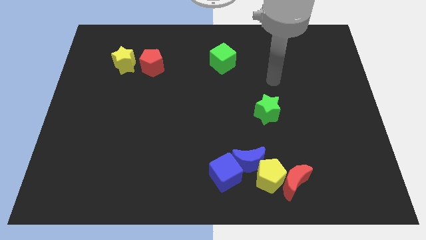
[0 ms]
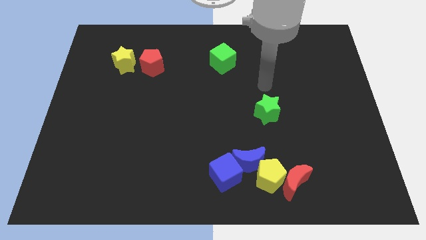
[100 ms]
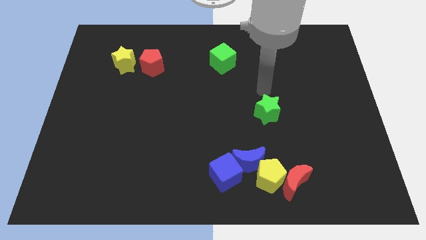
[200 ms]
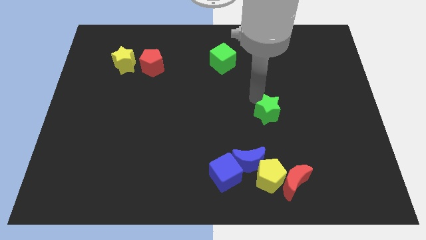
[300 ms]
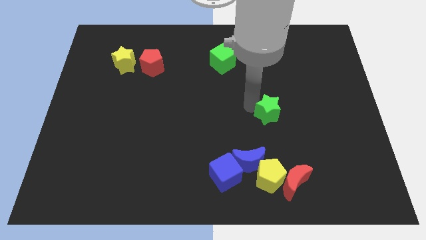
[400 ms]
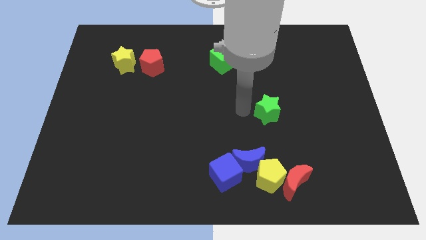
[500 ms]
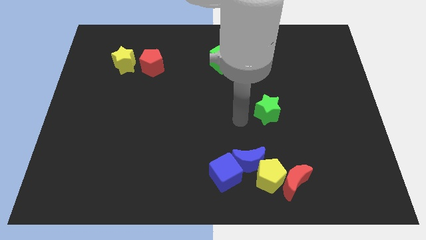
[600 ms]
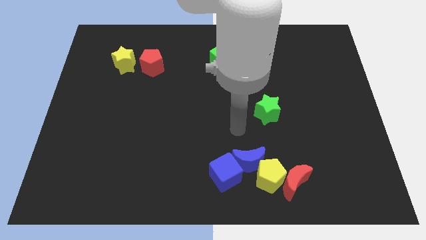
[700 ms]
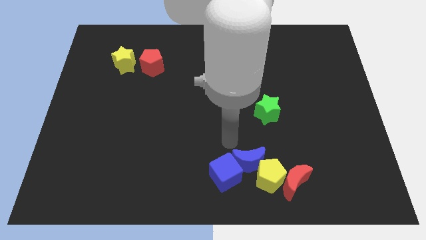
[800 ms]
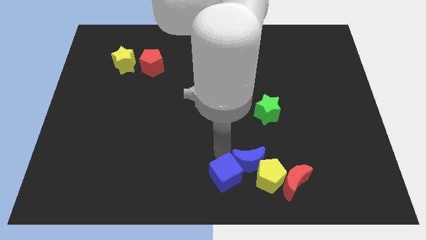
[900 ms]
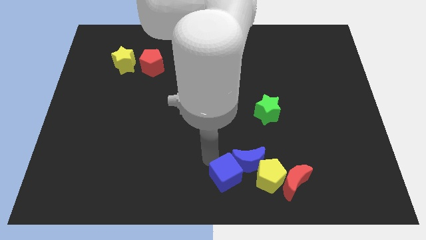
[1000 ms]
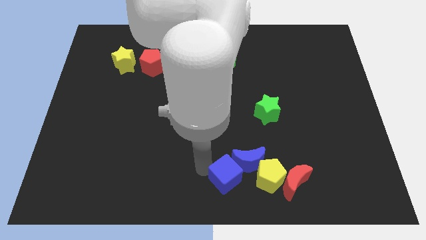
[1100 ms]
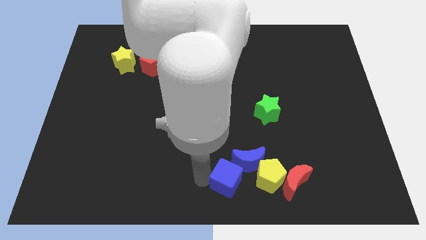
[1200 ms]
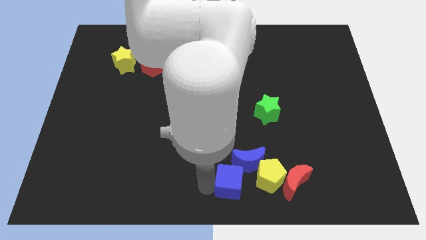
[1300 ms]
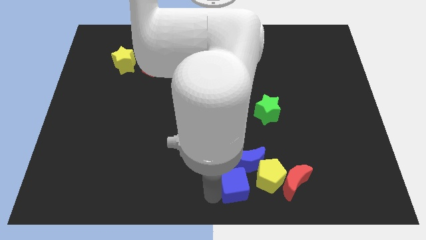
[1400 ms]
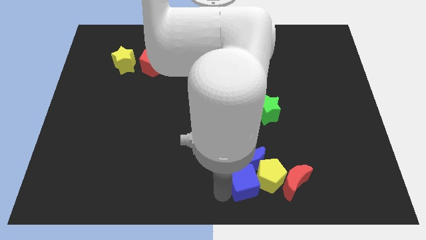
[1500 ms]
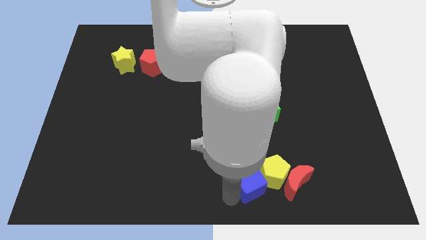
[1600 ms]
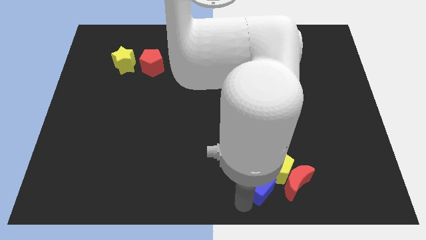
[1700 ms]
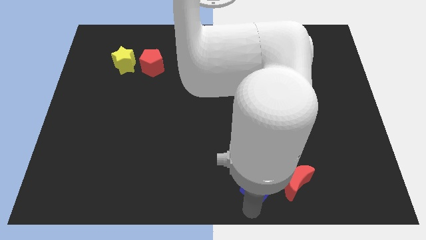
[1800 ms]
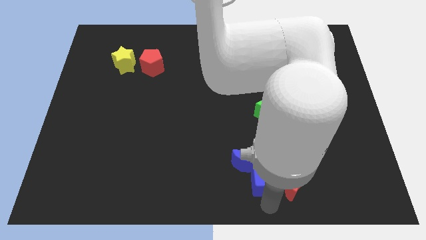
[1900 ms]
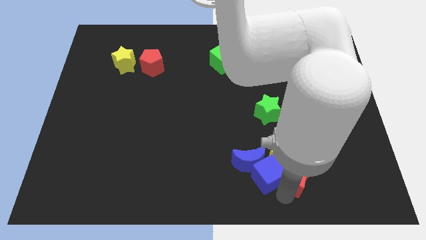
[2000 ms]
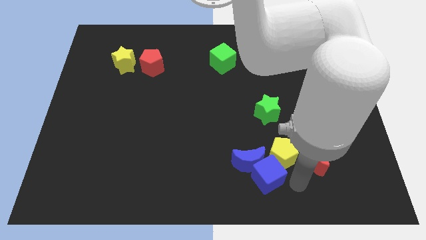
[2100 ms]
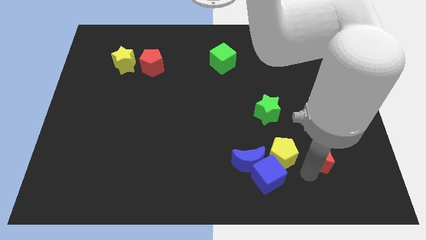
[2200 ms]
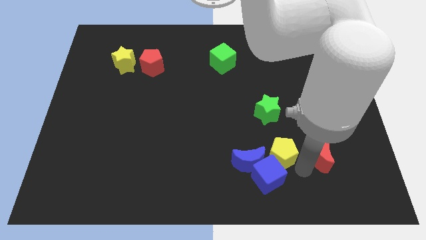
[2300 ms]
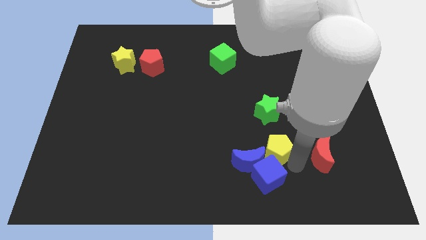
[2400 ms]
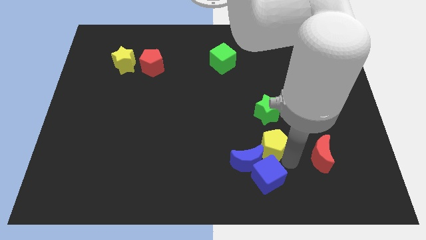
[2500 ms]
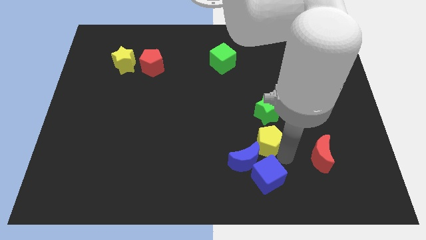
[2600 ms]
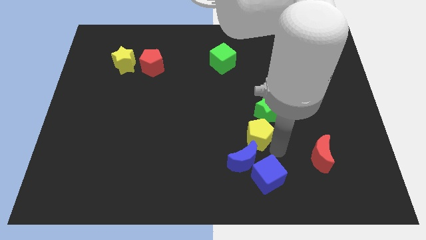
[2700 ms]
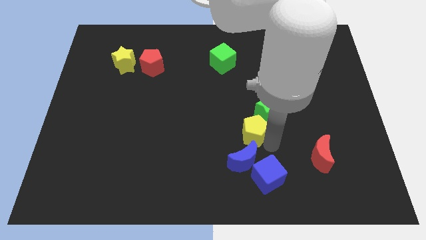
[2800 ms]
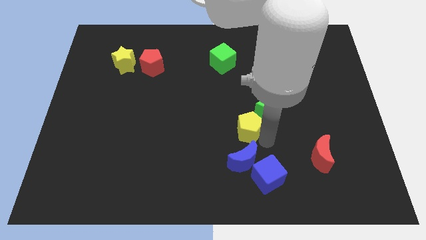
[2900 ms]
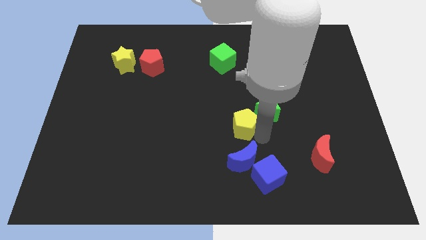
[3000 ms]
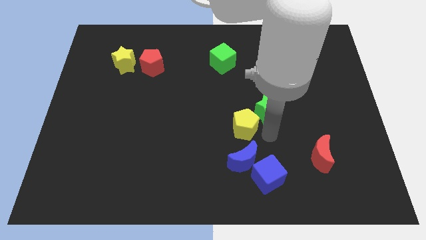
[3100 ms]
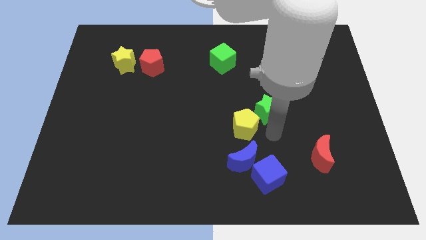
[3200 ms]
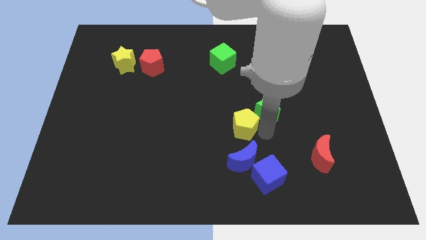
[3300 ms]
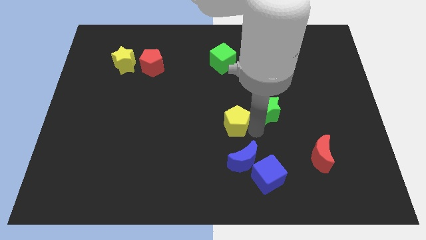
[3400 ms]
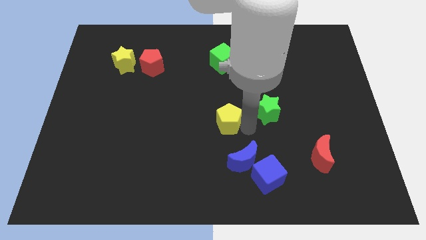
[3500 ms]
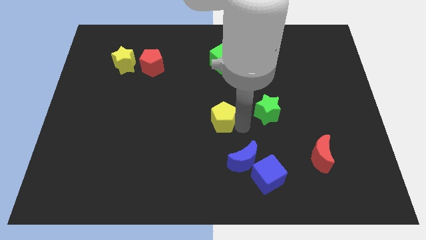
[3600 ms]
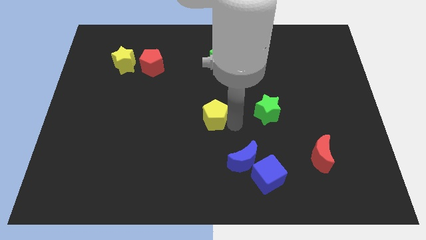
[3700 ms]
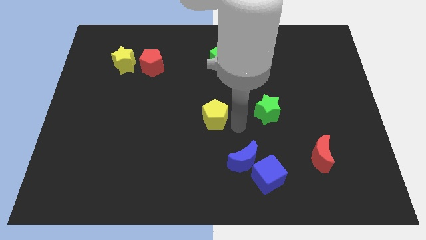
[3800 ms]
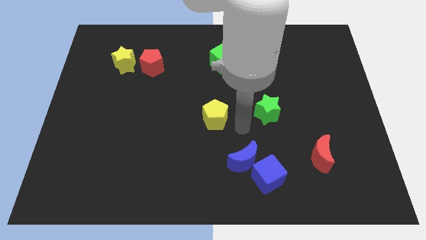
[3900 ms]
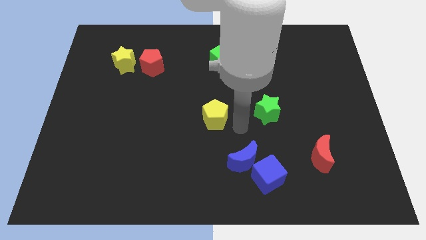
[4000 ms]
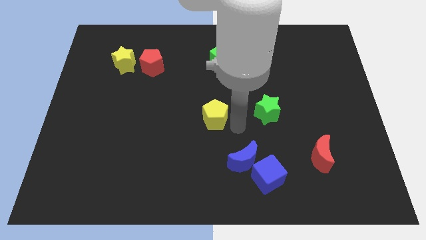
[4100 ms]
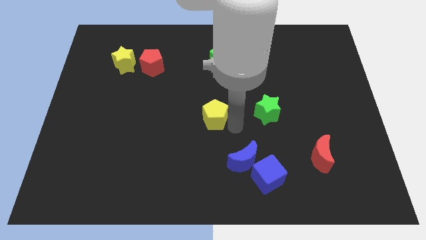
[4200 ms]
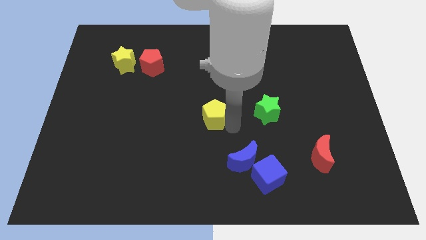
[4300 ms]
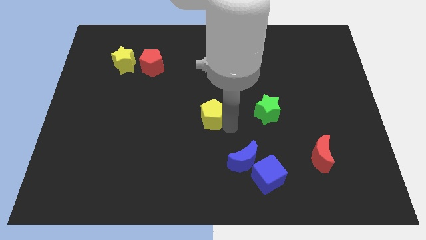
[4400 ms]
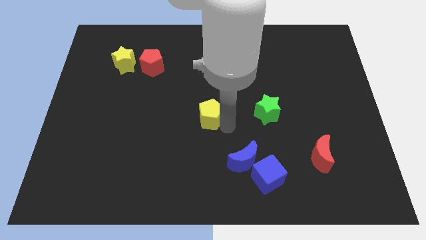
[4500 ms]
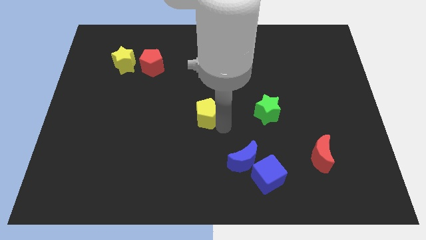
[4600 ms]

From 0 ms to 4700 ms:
slide the yellow pentagon upwards and then left

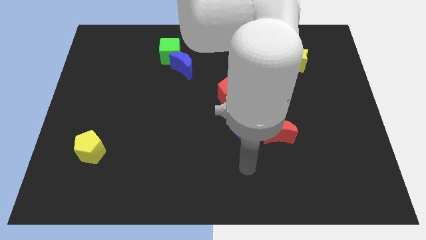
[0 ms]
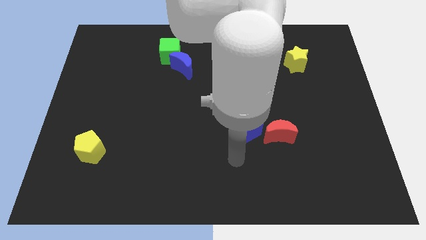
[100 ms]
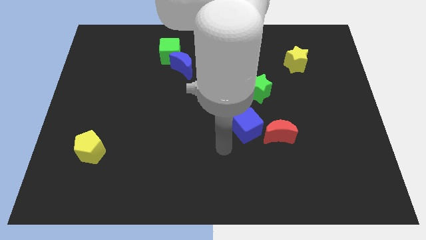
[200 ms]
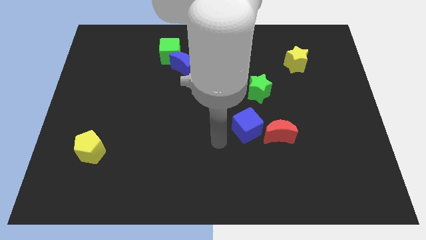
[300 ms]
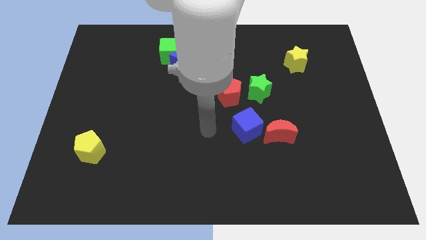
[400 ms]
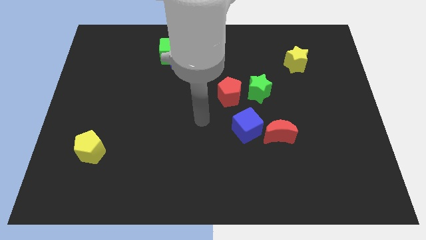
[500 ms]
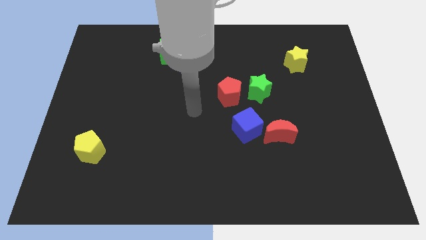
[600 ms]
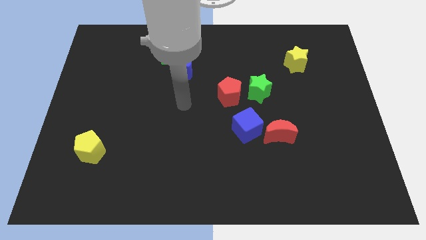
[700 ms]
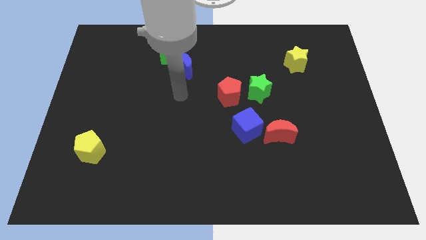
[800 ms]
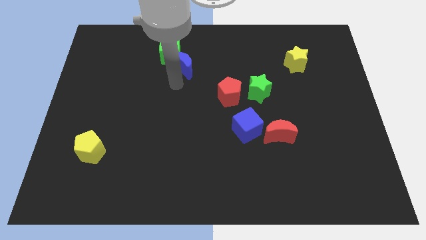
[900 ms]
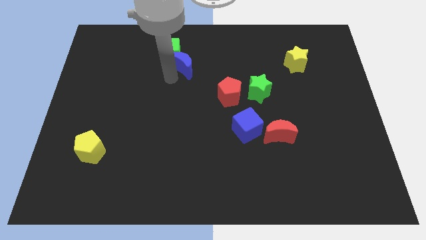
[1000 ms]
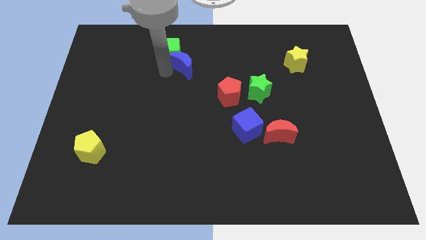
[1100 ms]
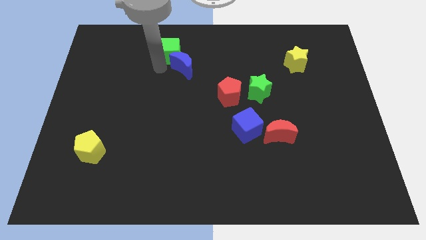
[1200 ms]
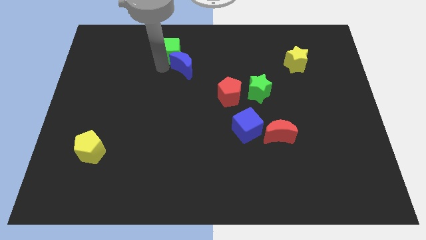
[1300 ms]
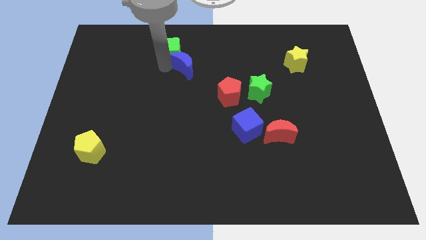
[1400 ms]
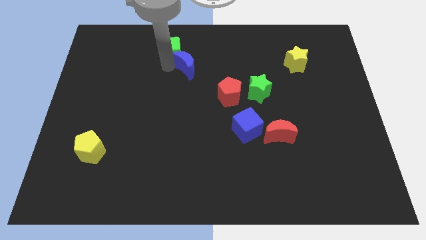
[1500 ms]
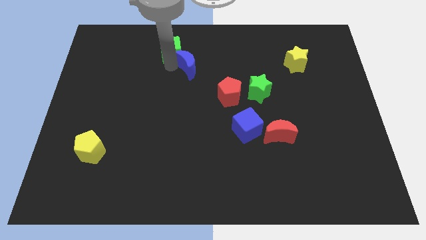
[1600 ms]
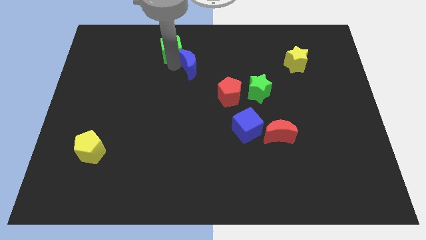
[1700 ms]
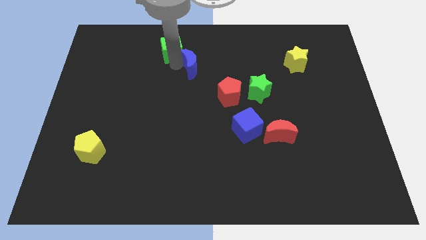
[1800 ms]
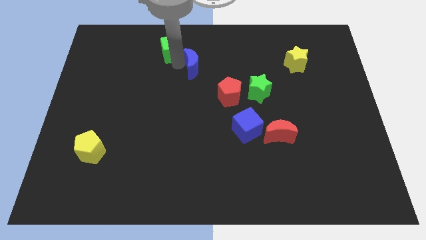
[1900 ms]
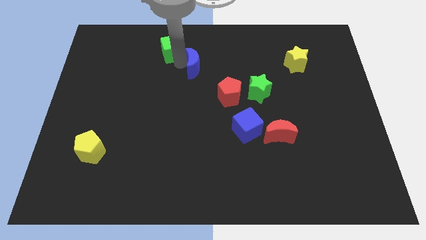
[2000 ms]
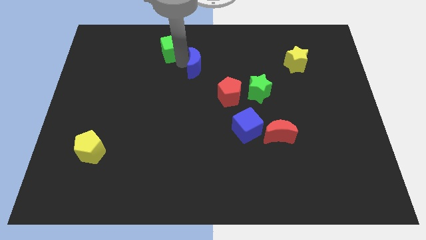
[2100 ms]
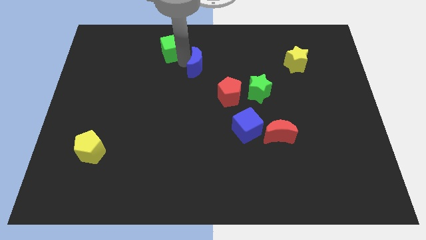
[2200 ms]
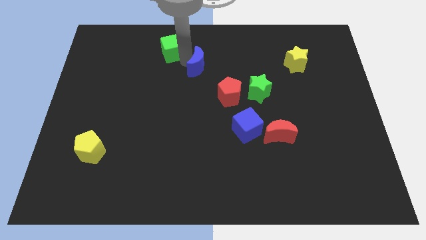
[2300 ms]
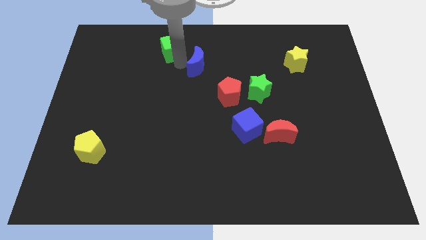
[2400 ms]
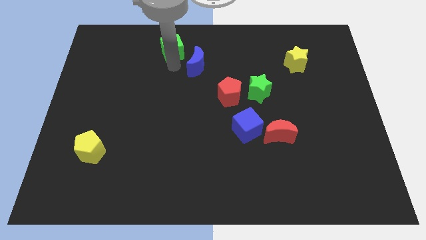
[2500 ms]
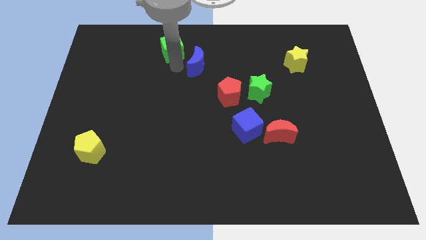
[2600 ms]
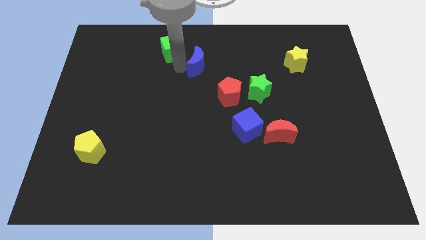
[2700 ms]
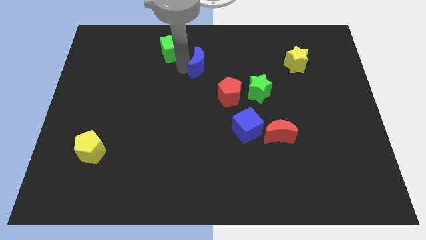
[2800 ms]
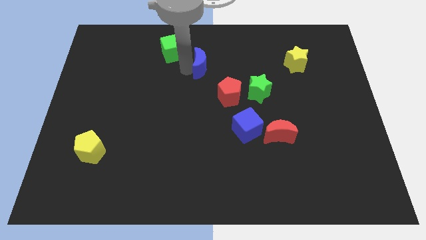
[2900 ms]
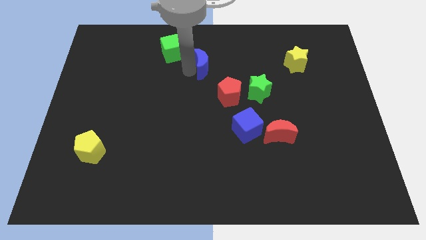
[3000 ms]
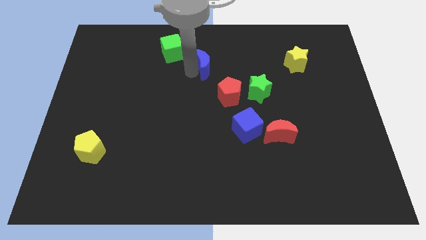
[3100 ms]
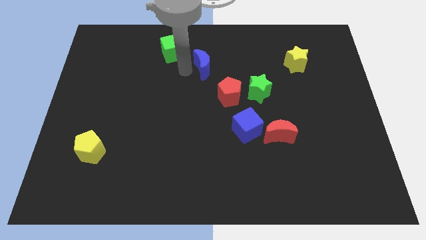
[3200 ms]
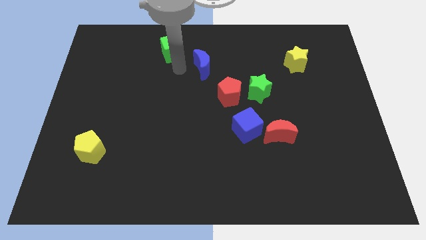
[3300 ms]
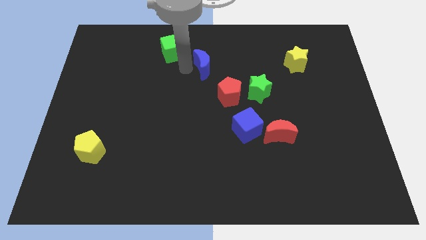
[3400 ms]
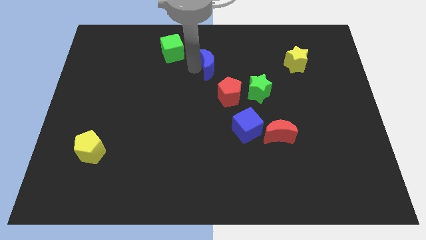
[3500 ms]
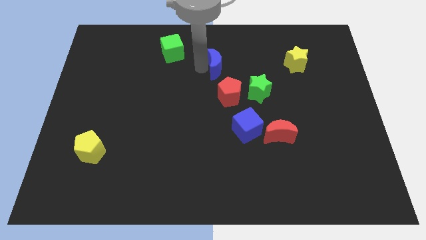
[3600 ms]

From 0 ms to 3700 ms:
slightly move the blue moon right
